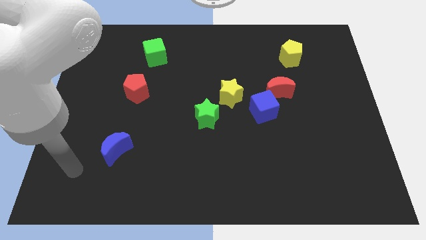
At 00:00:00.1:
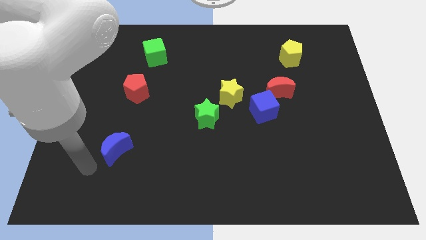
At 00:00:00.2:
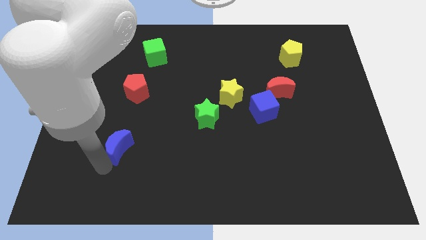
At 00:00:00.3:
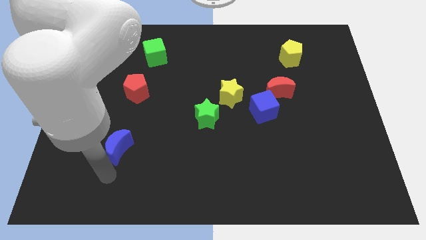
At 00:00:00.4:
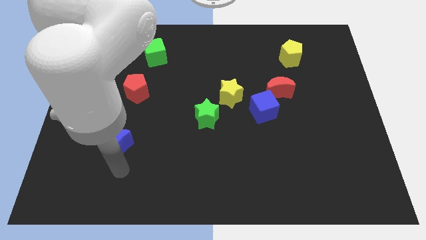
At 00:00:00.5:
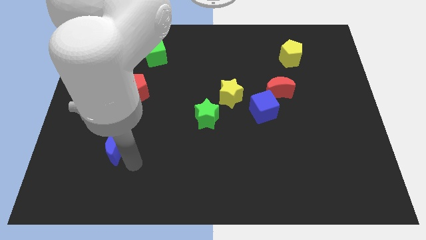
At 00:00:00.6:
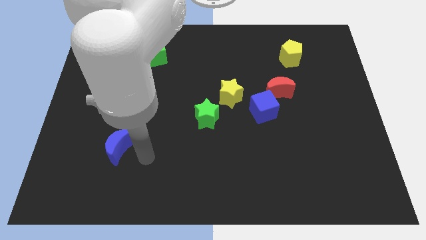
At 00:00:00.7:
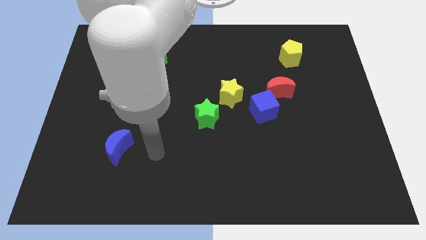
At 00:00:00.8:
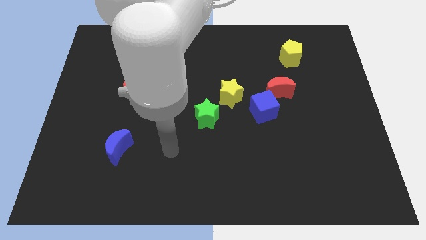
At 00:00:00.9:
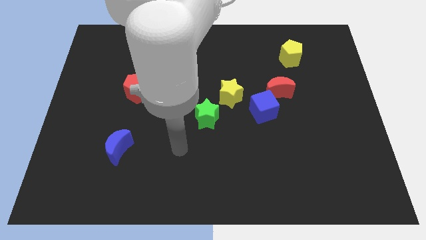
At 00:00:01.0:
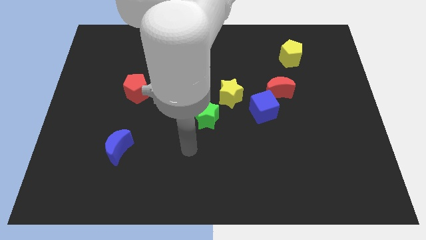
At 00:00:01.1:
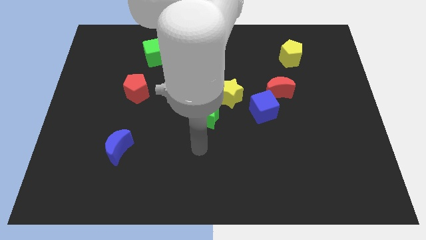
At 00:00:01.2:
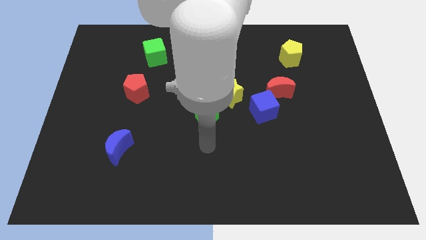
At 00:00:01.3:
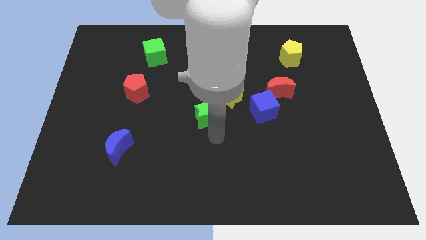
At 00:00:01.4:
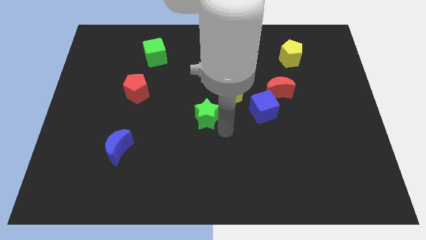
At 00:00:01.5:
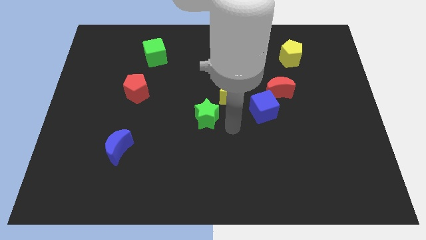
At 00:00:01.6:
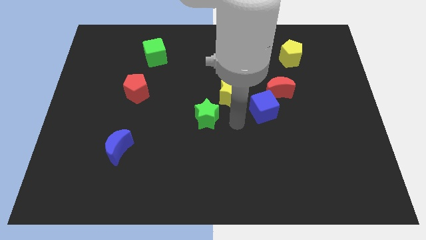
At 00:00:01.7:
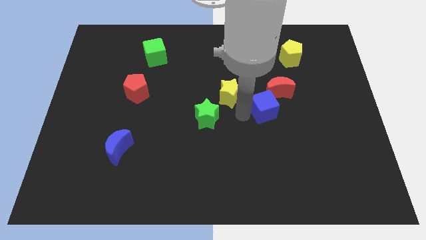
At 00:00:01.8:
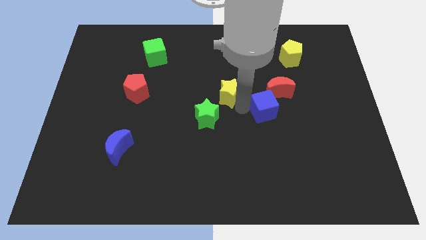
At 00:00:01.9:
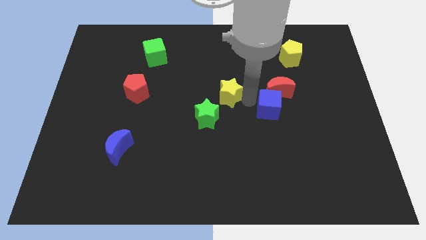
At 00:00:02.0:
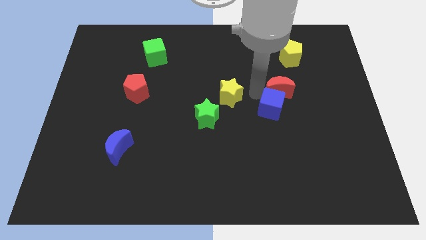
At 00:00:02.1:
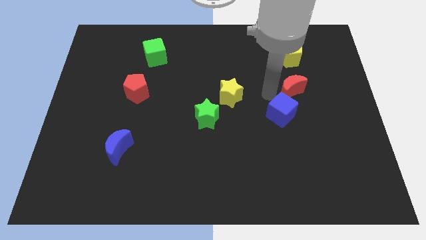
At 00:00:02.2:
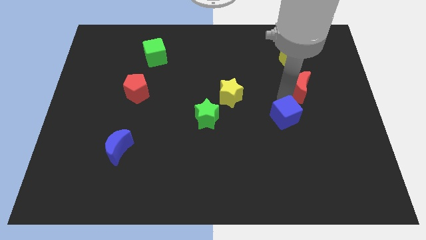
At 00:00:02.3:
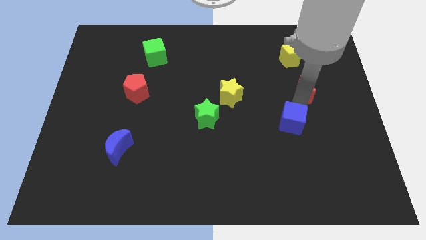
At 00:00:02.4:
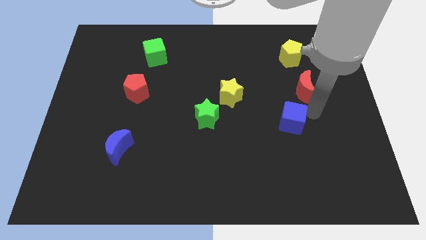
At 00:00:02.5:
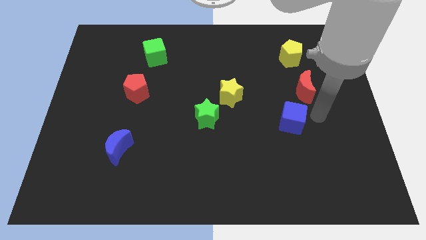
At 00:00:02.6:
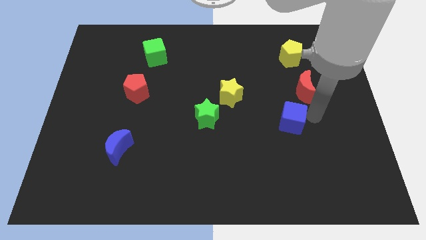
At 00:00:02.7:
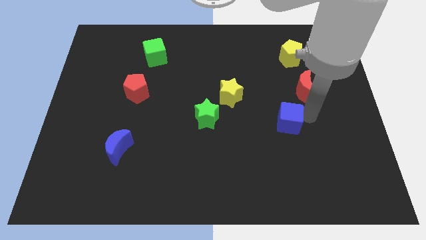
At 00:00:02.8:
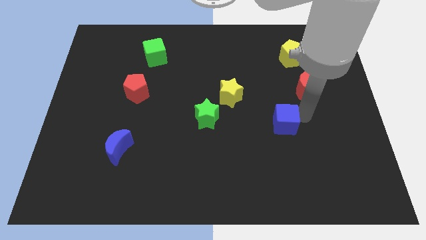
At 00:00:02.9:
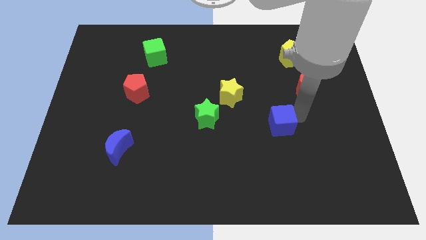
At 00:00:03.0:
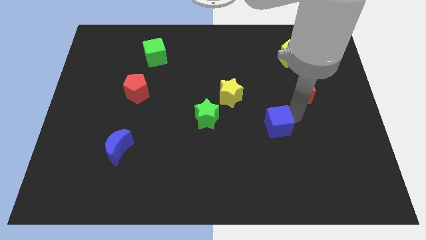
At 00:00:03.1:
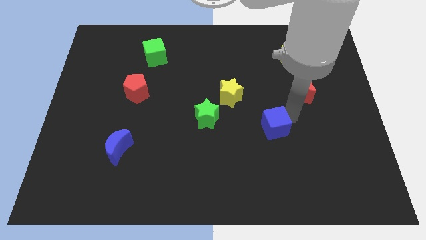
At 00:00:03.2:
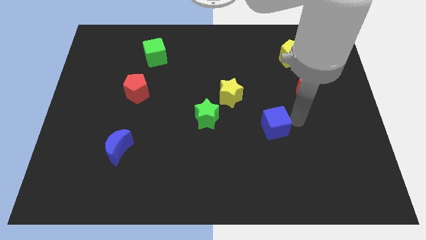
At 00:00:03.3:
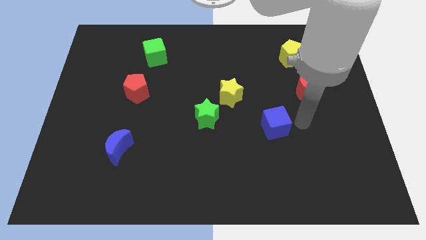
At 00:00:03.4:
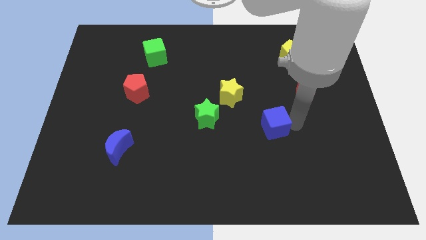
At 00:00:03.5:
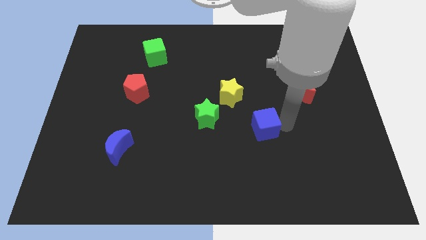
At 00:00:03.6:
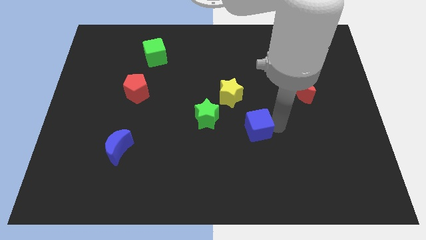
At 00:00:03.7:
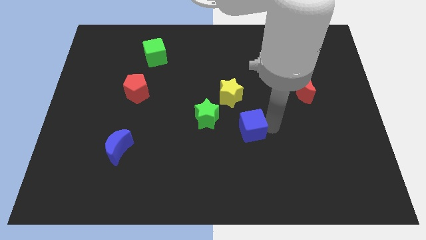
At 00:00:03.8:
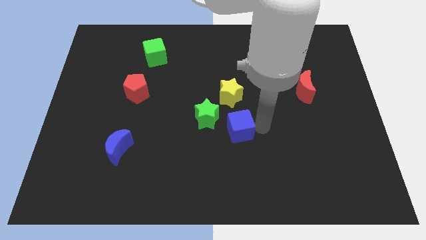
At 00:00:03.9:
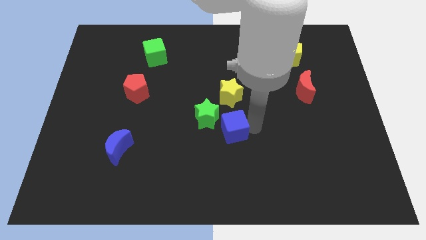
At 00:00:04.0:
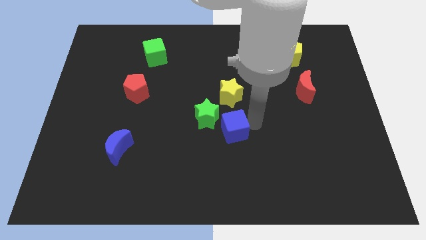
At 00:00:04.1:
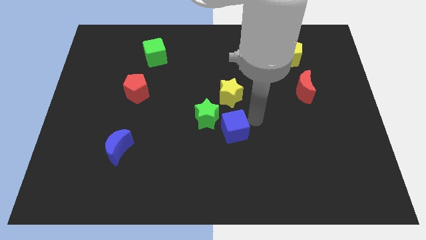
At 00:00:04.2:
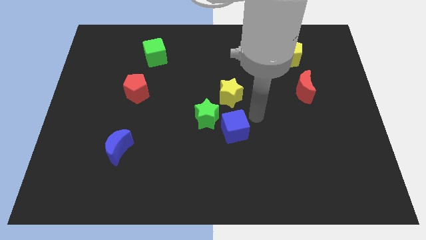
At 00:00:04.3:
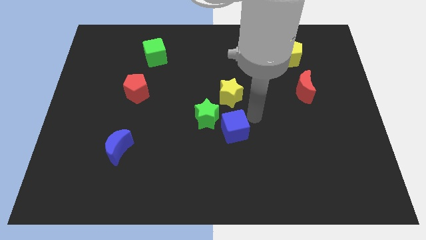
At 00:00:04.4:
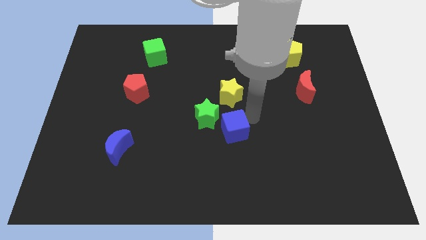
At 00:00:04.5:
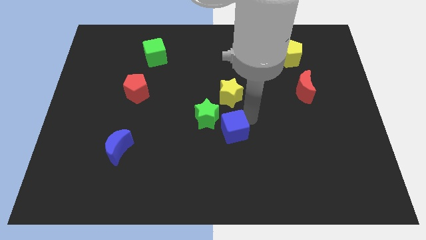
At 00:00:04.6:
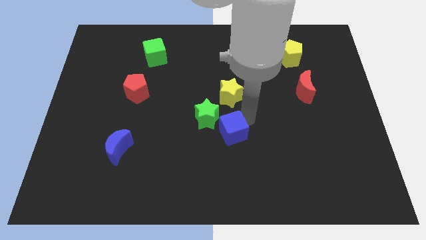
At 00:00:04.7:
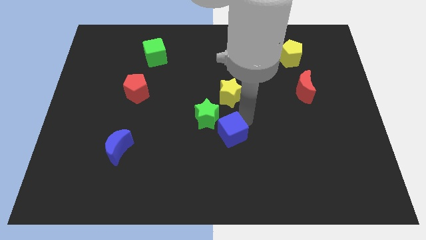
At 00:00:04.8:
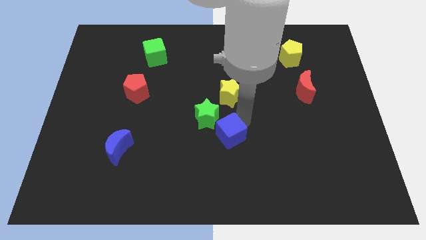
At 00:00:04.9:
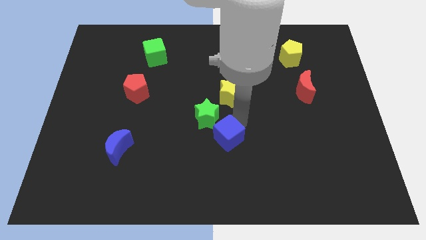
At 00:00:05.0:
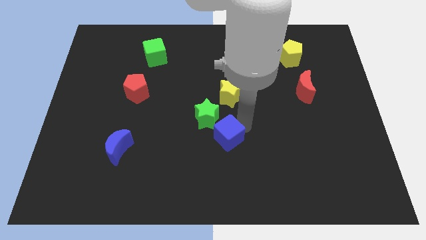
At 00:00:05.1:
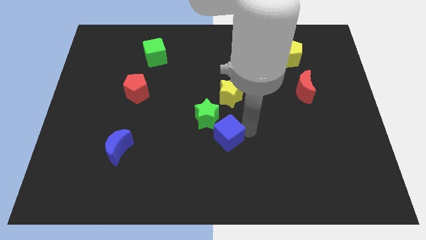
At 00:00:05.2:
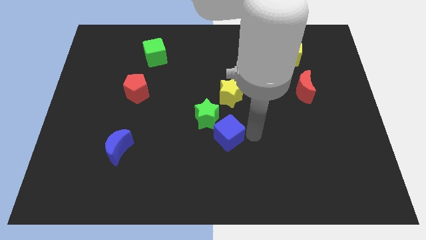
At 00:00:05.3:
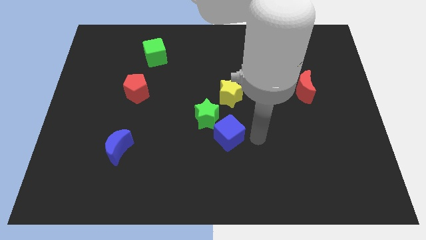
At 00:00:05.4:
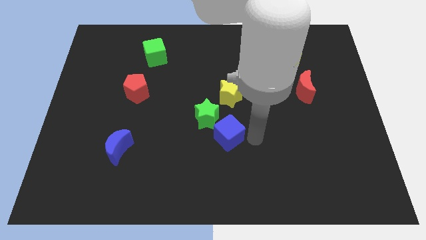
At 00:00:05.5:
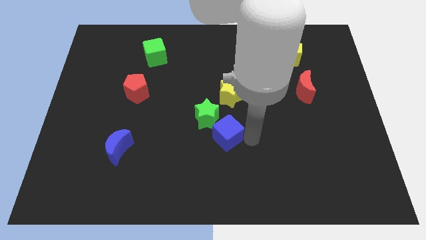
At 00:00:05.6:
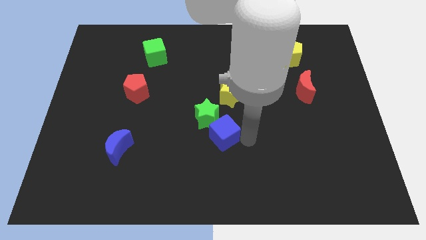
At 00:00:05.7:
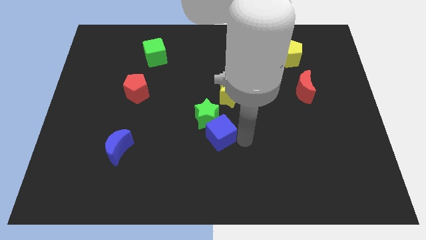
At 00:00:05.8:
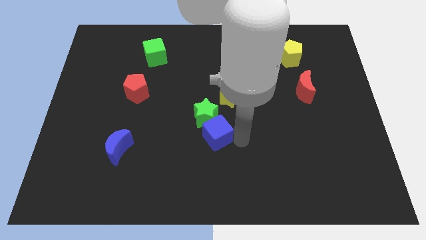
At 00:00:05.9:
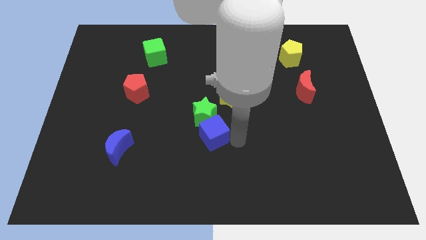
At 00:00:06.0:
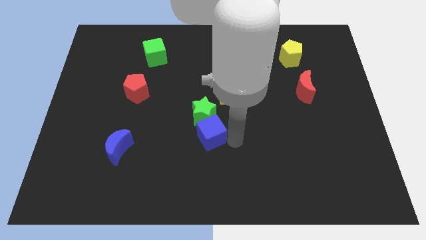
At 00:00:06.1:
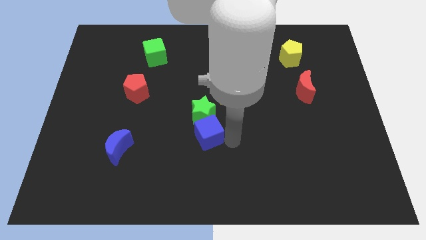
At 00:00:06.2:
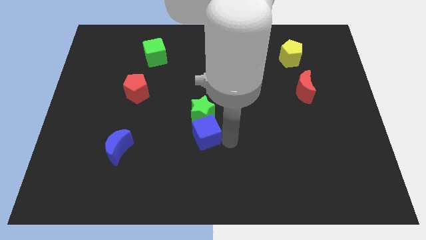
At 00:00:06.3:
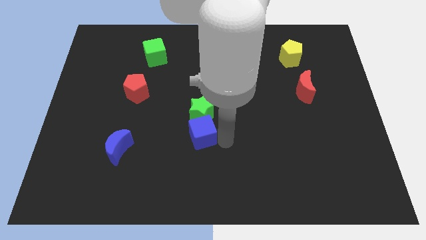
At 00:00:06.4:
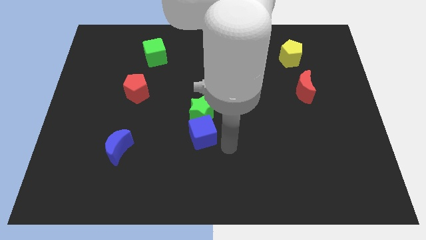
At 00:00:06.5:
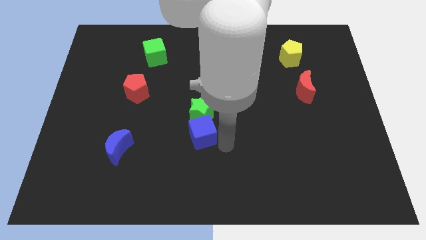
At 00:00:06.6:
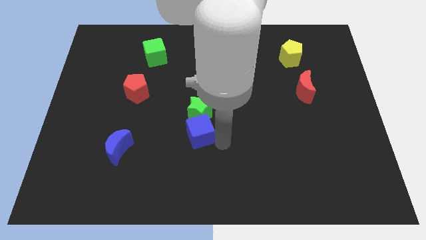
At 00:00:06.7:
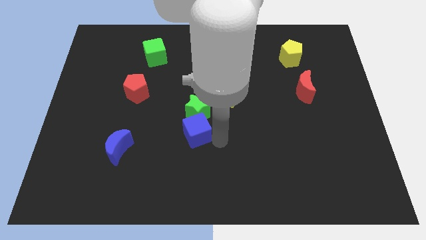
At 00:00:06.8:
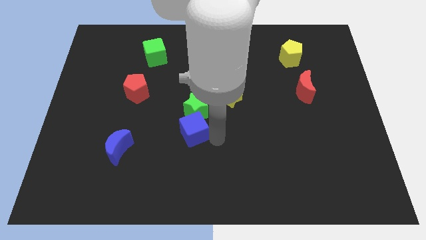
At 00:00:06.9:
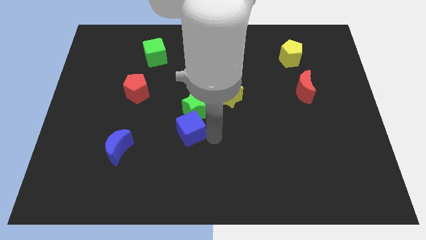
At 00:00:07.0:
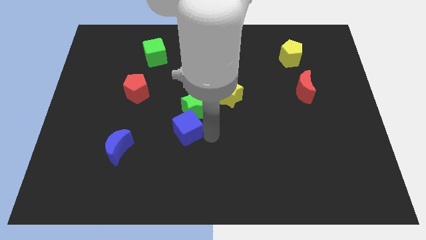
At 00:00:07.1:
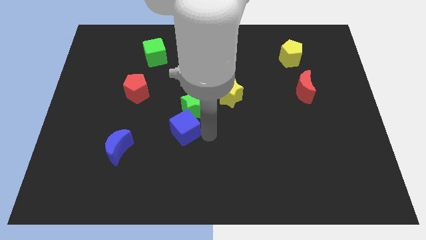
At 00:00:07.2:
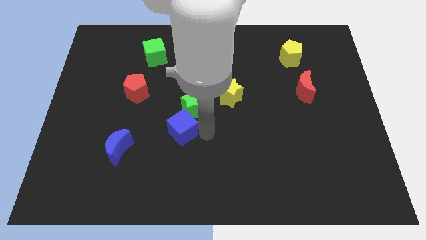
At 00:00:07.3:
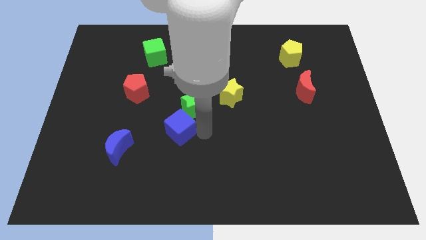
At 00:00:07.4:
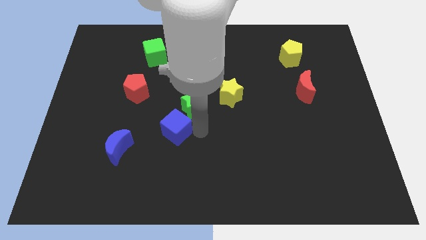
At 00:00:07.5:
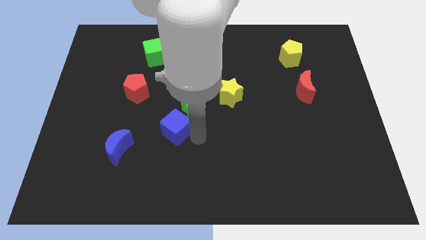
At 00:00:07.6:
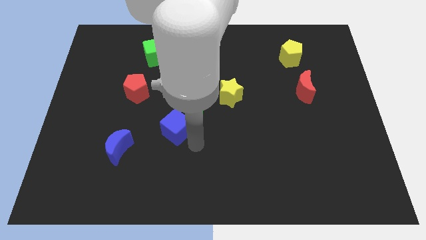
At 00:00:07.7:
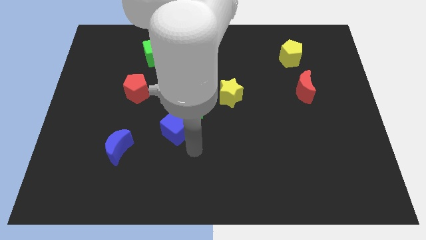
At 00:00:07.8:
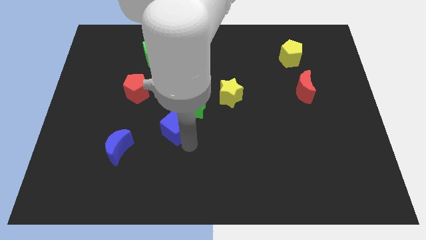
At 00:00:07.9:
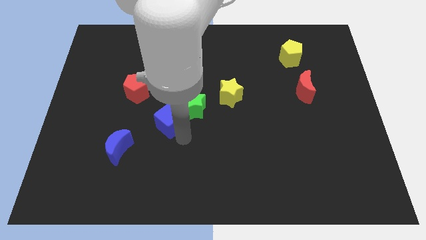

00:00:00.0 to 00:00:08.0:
put the blue cube to the bottom right side of the red pentagon
